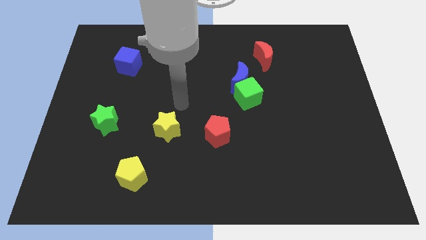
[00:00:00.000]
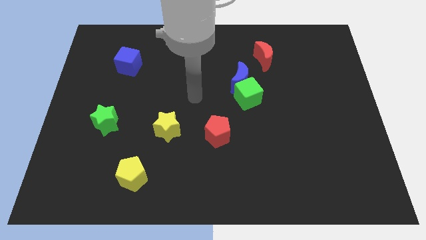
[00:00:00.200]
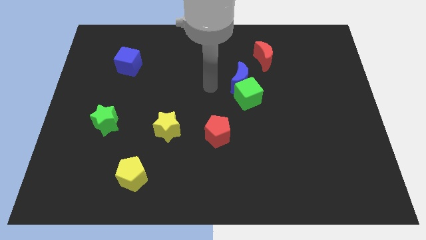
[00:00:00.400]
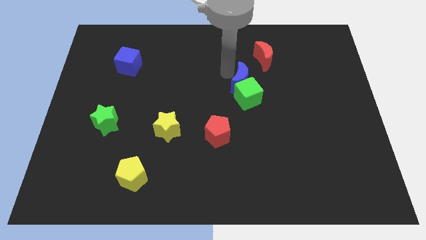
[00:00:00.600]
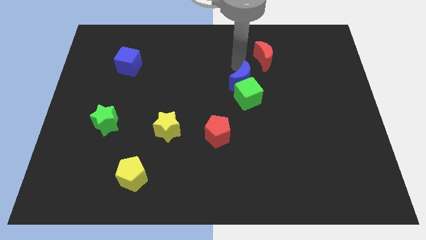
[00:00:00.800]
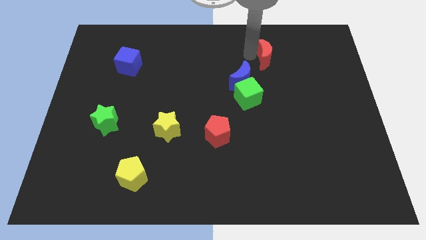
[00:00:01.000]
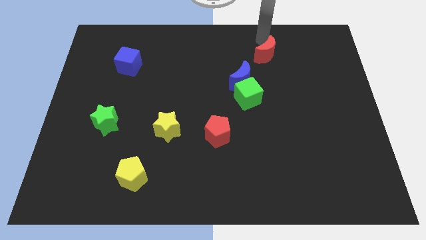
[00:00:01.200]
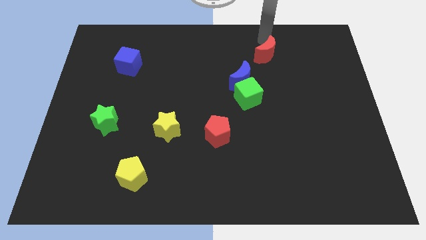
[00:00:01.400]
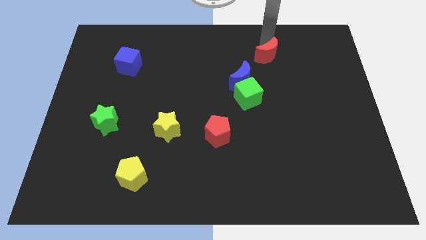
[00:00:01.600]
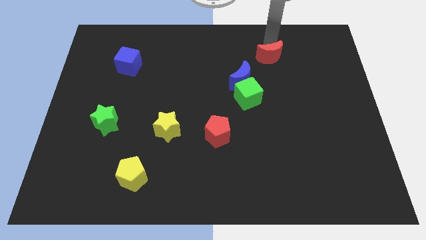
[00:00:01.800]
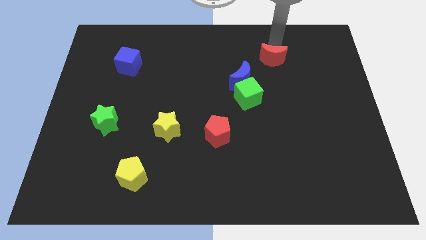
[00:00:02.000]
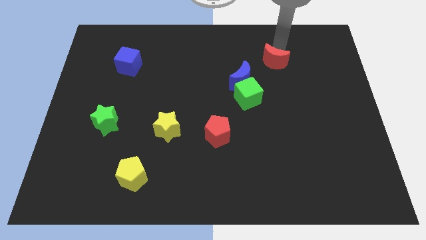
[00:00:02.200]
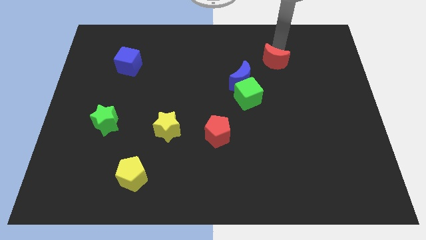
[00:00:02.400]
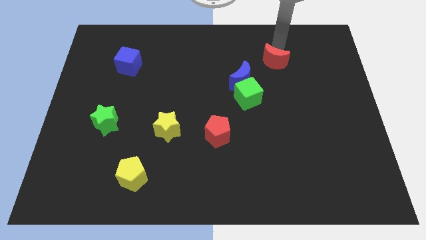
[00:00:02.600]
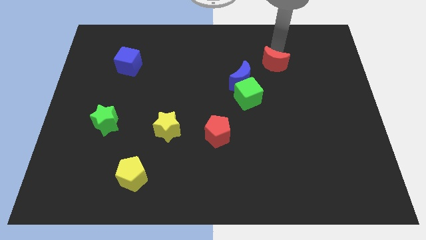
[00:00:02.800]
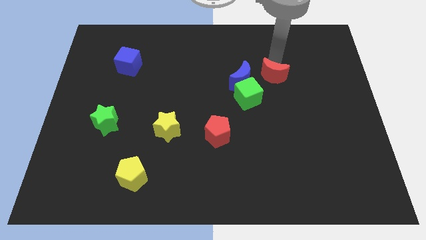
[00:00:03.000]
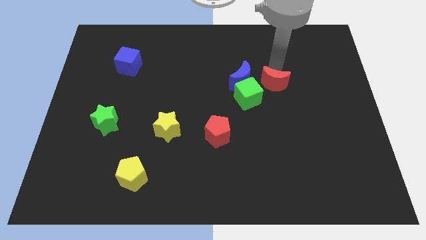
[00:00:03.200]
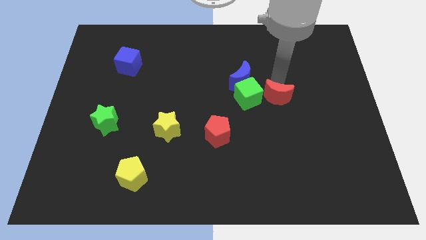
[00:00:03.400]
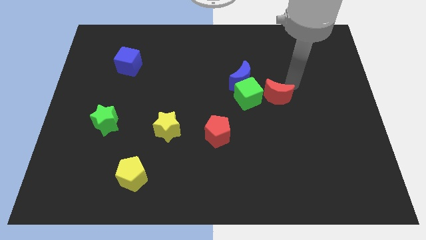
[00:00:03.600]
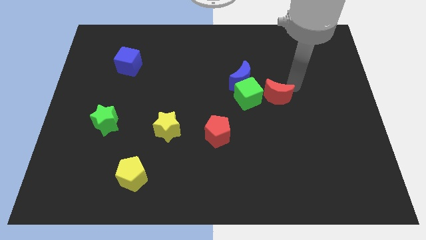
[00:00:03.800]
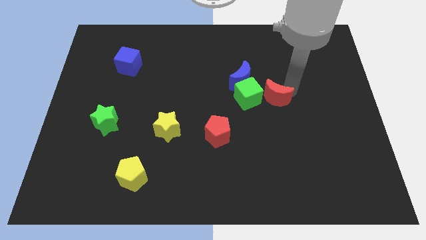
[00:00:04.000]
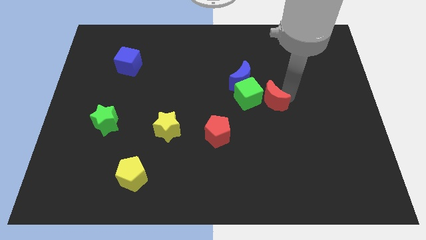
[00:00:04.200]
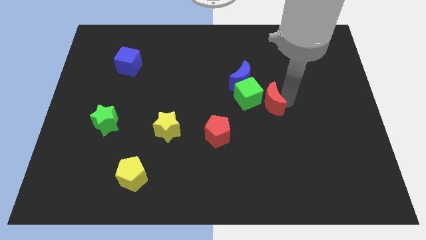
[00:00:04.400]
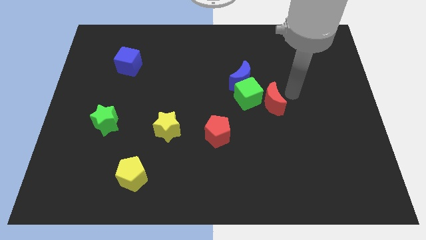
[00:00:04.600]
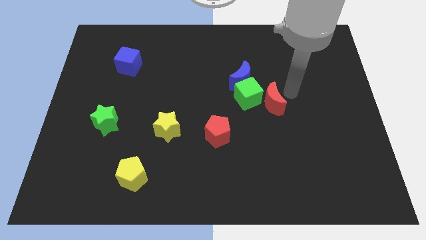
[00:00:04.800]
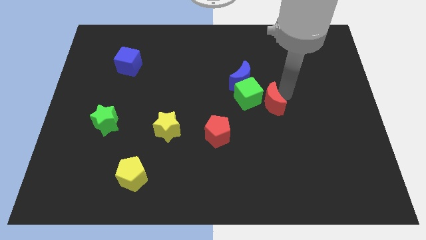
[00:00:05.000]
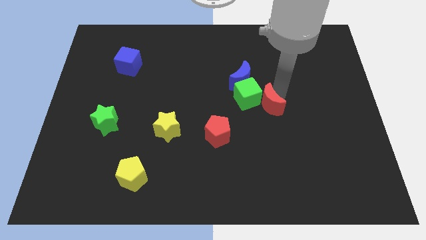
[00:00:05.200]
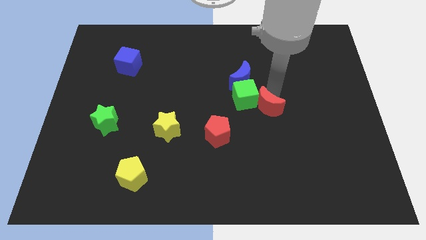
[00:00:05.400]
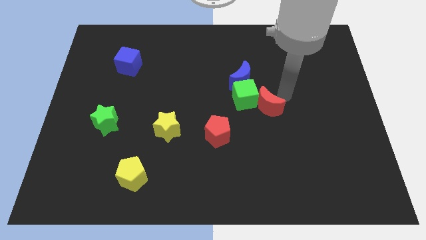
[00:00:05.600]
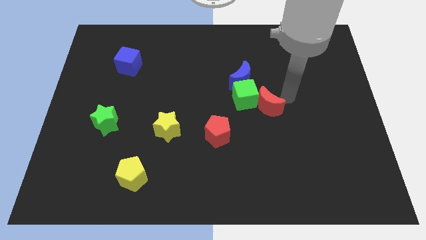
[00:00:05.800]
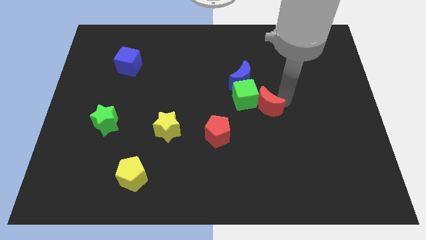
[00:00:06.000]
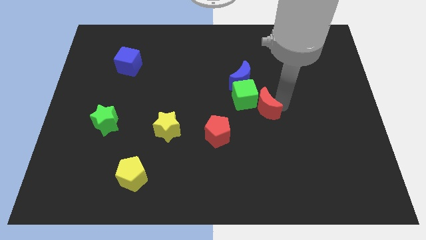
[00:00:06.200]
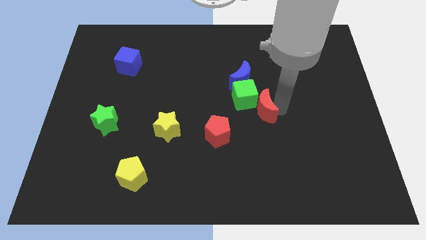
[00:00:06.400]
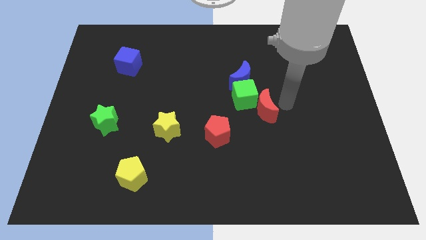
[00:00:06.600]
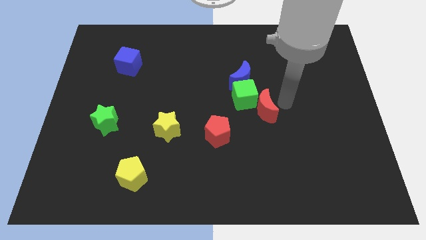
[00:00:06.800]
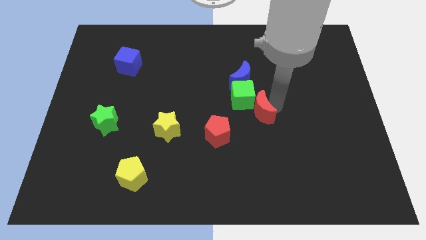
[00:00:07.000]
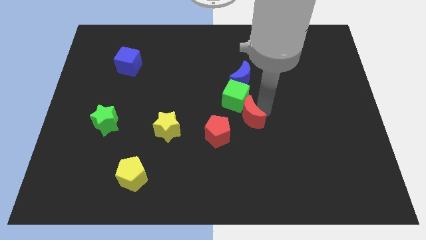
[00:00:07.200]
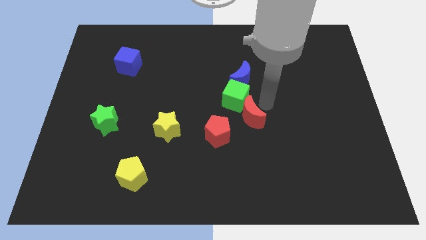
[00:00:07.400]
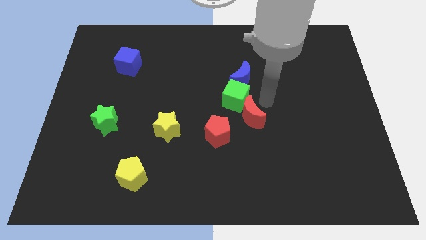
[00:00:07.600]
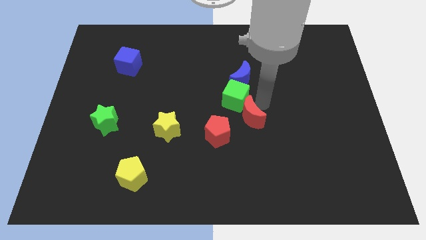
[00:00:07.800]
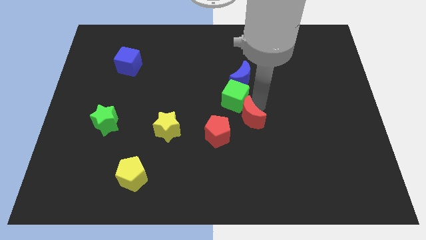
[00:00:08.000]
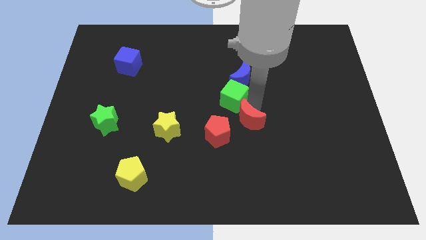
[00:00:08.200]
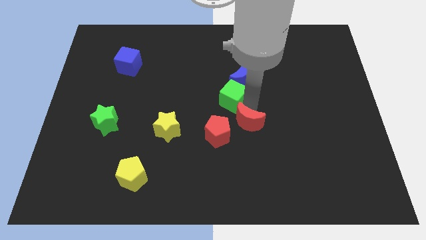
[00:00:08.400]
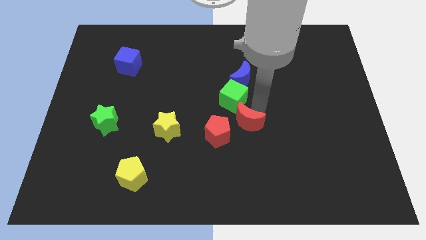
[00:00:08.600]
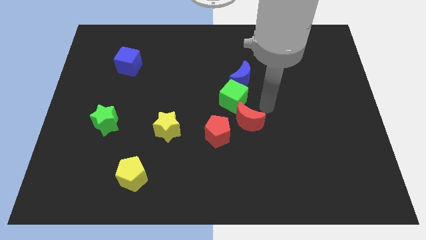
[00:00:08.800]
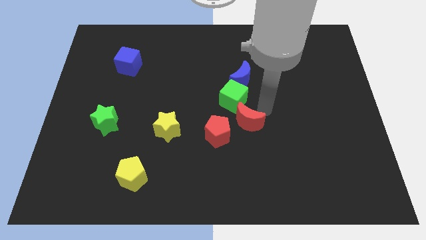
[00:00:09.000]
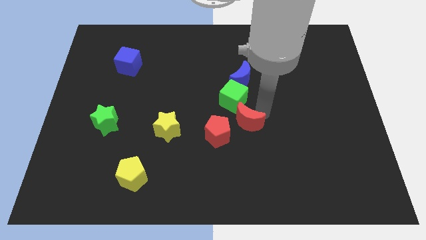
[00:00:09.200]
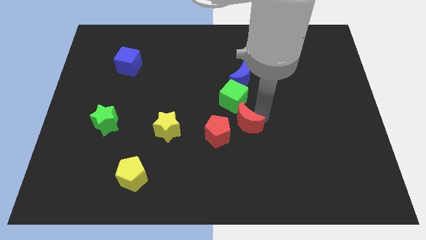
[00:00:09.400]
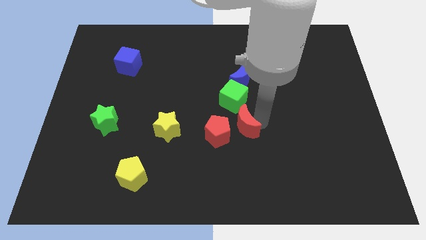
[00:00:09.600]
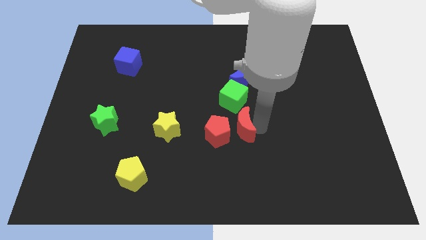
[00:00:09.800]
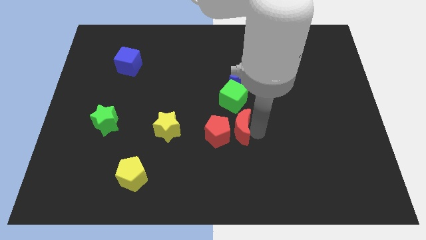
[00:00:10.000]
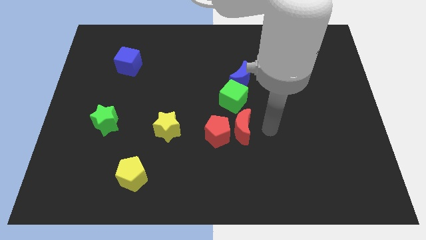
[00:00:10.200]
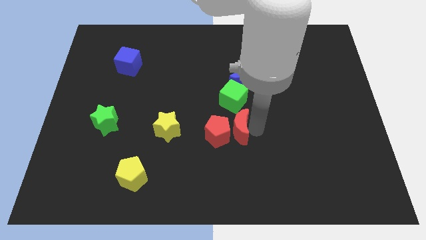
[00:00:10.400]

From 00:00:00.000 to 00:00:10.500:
put the red moon right of the yellow star

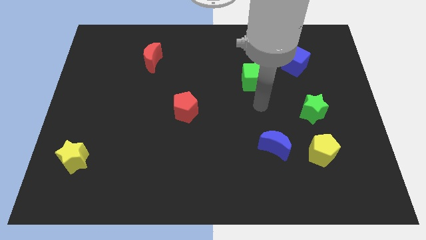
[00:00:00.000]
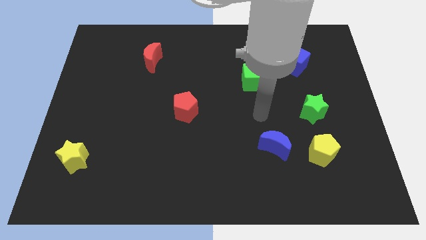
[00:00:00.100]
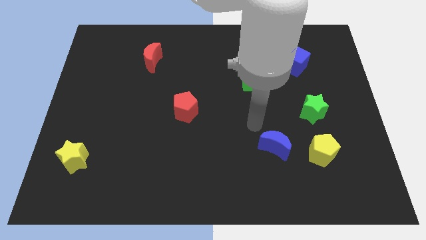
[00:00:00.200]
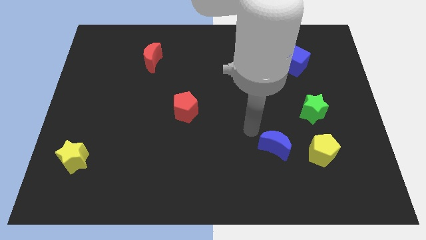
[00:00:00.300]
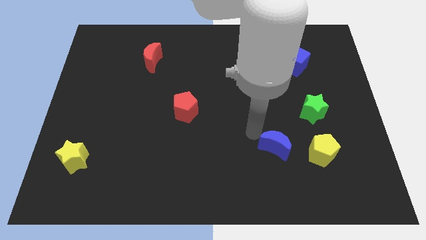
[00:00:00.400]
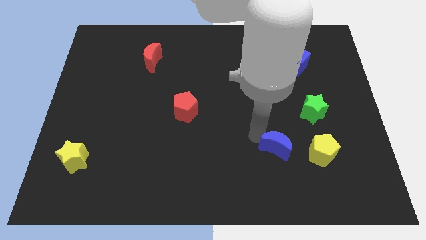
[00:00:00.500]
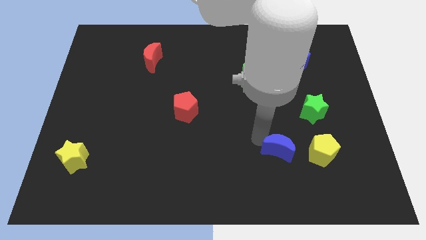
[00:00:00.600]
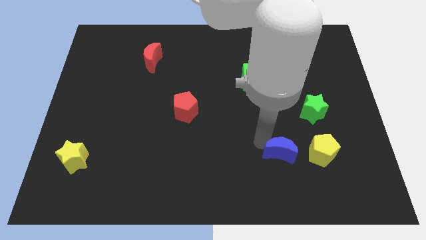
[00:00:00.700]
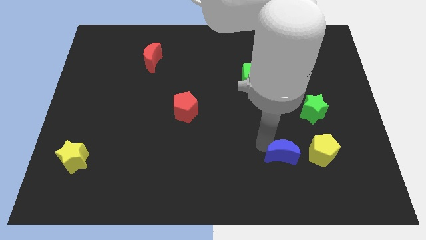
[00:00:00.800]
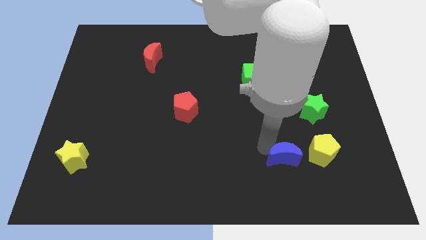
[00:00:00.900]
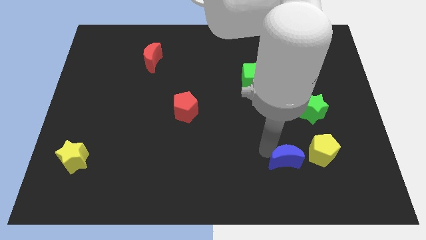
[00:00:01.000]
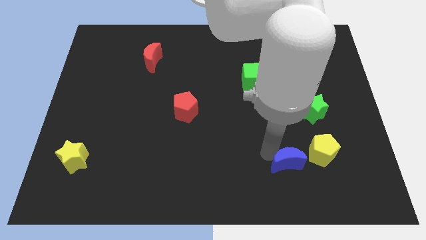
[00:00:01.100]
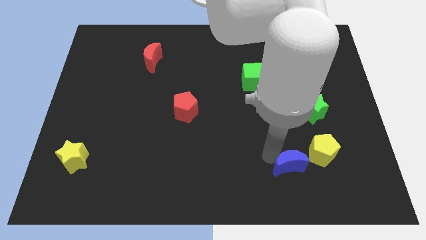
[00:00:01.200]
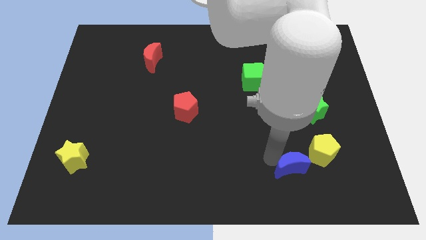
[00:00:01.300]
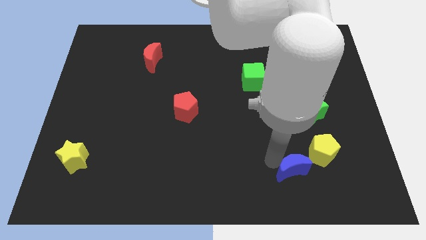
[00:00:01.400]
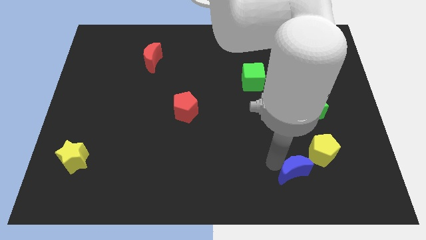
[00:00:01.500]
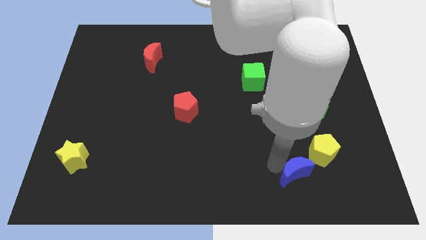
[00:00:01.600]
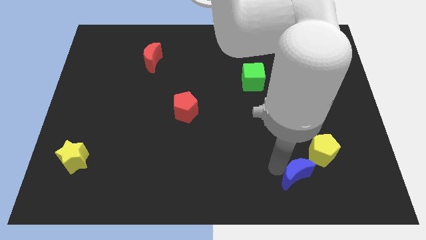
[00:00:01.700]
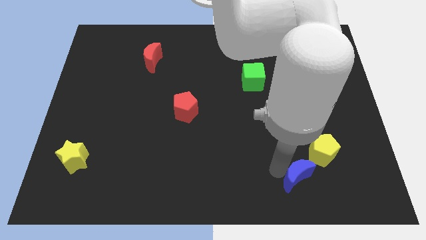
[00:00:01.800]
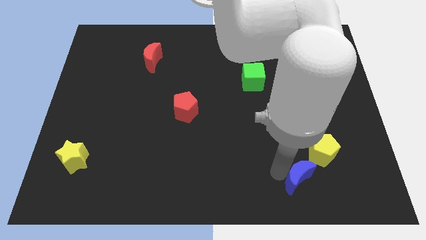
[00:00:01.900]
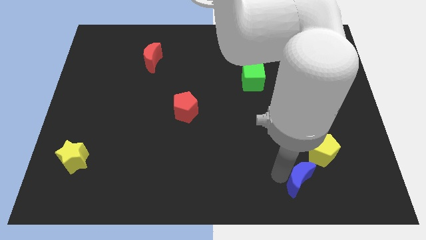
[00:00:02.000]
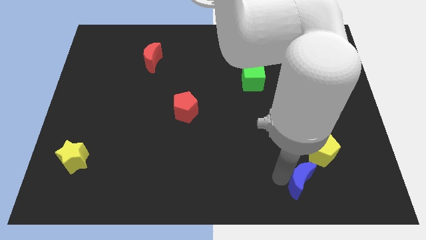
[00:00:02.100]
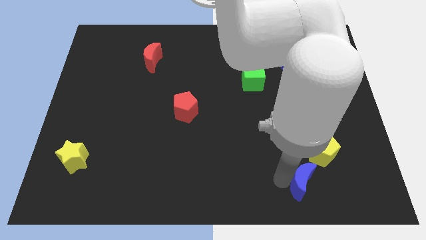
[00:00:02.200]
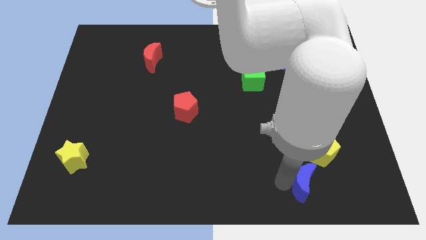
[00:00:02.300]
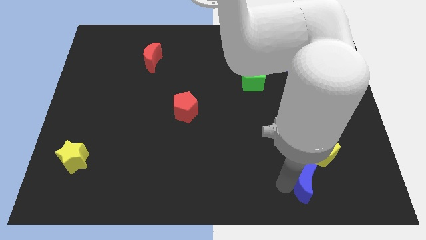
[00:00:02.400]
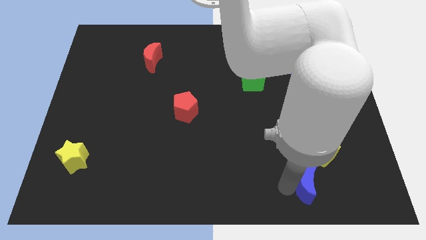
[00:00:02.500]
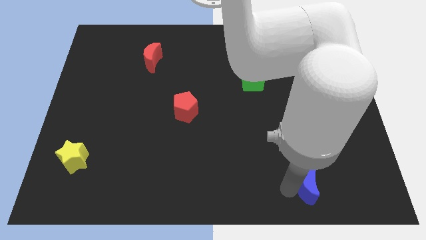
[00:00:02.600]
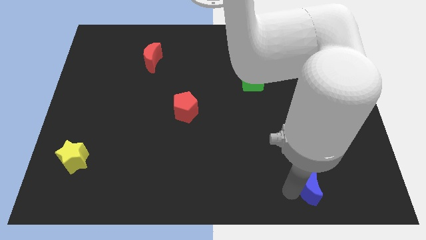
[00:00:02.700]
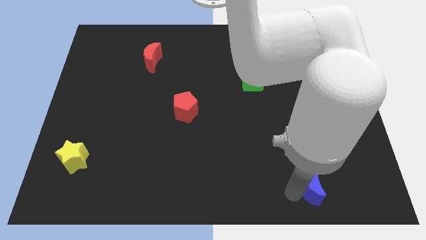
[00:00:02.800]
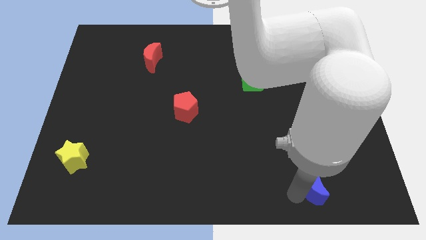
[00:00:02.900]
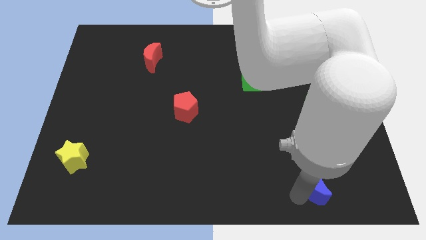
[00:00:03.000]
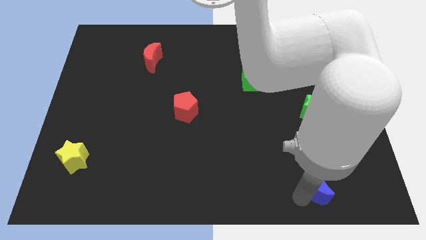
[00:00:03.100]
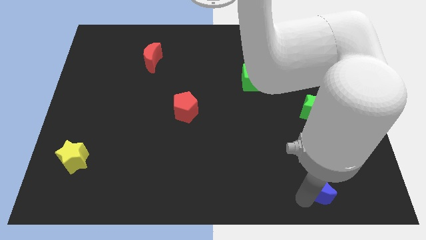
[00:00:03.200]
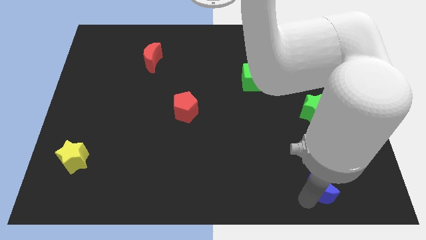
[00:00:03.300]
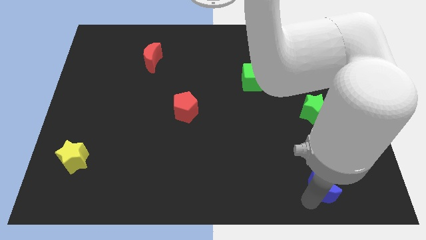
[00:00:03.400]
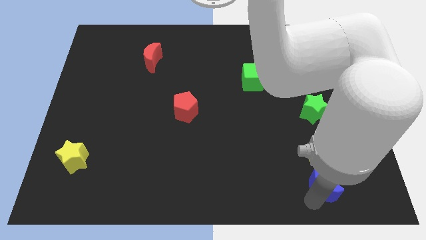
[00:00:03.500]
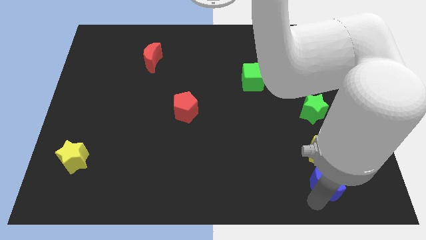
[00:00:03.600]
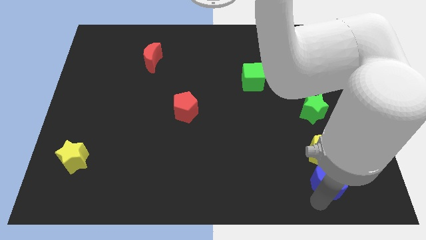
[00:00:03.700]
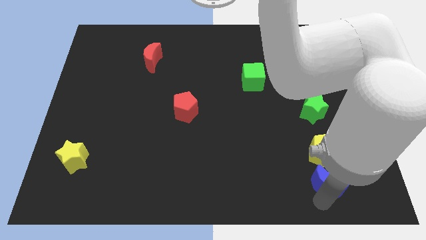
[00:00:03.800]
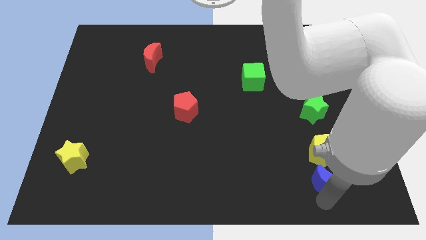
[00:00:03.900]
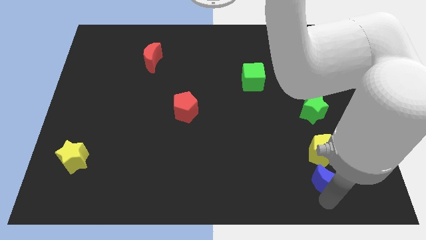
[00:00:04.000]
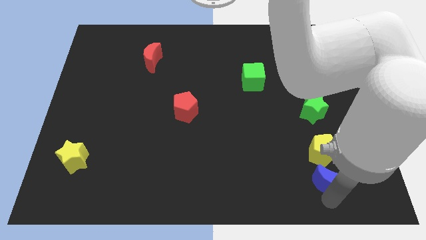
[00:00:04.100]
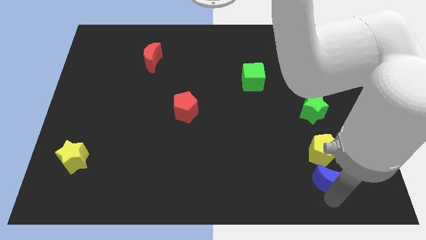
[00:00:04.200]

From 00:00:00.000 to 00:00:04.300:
slide the blue moon diagonally down and to the right of the yellow pentagon
